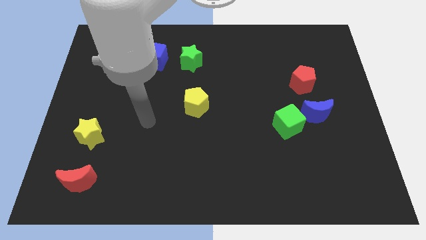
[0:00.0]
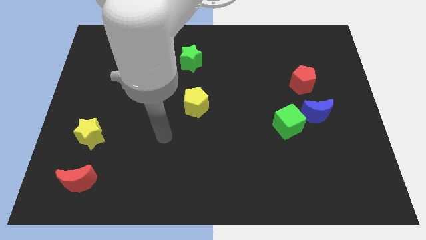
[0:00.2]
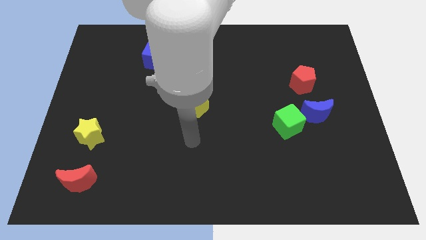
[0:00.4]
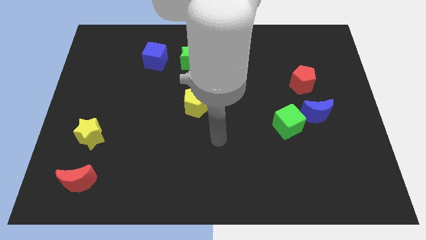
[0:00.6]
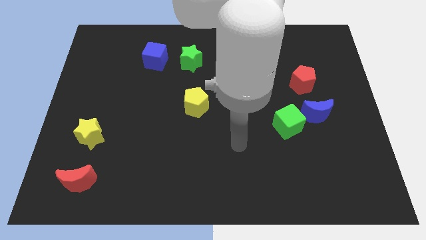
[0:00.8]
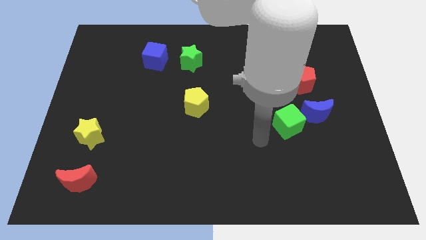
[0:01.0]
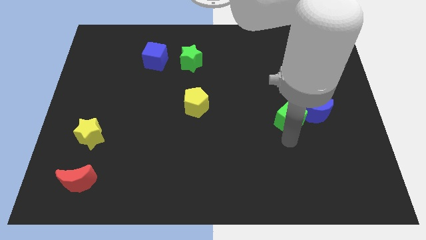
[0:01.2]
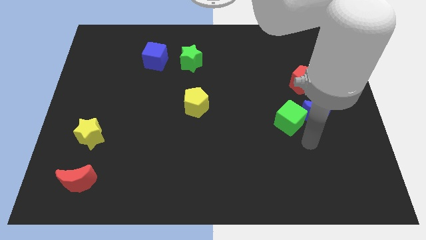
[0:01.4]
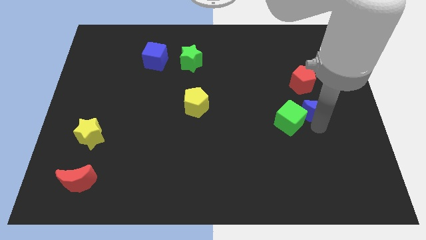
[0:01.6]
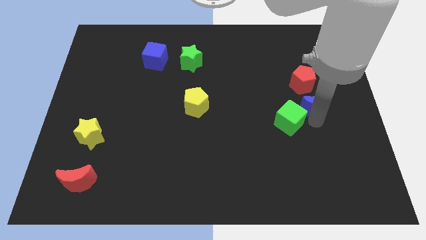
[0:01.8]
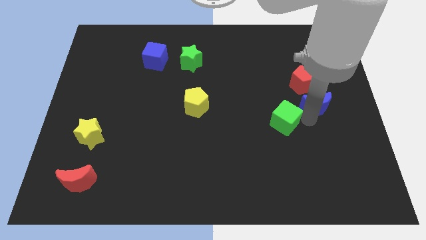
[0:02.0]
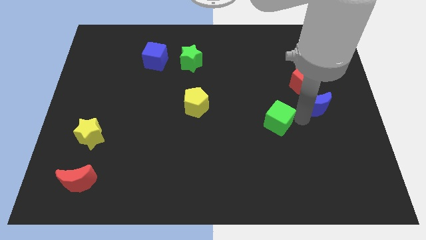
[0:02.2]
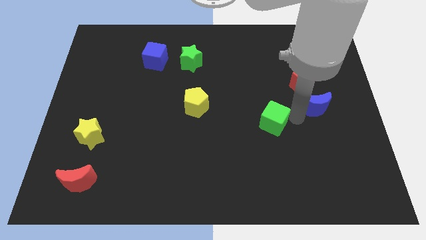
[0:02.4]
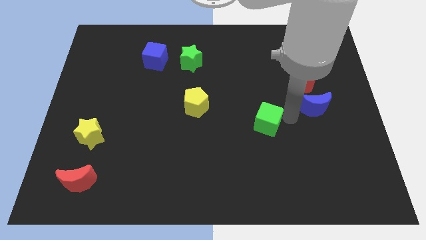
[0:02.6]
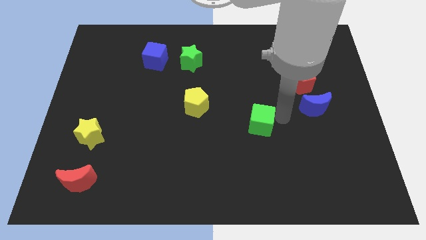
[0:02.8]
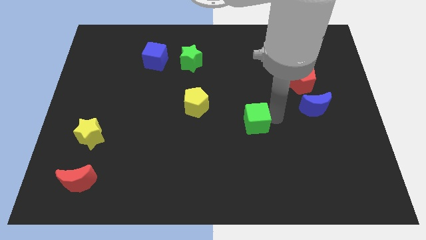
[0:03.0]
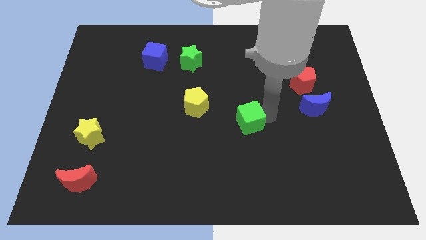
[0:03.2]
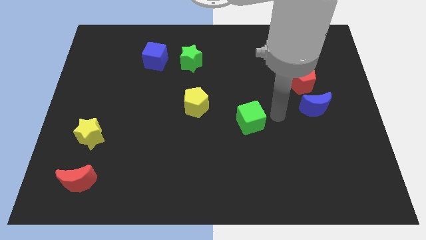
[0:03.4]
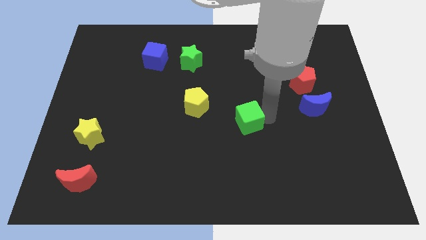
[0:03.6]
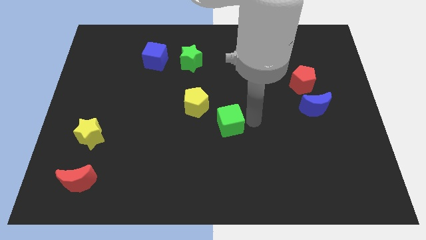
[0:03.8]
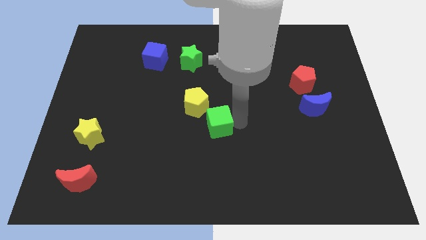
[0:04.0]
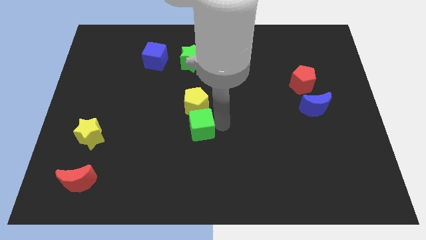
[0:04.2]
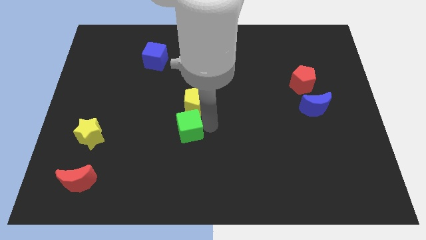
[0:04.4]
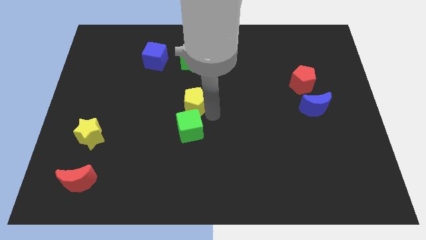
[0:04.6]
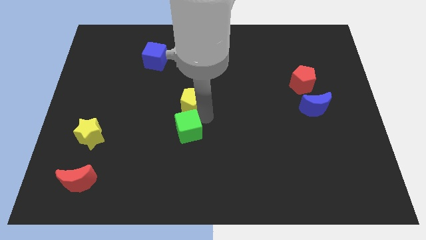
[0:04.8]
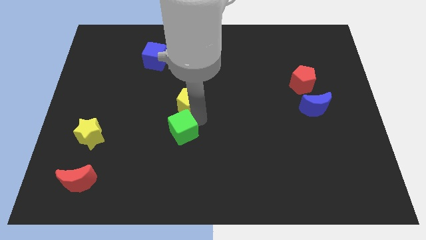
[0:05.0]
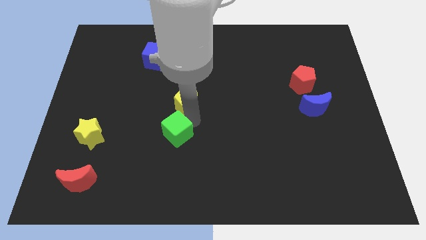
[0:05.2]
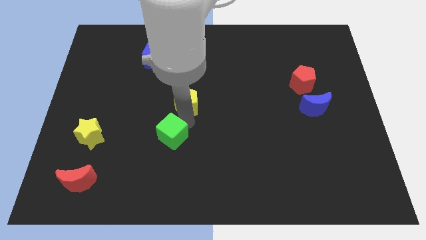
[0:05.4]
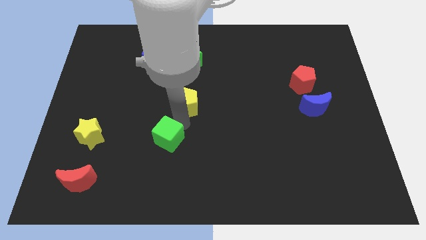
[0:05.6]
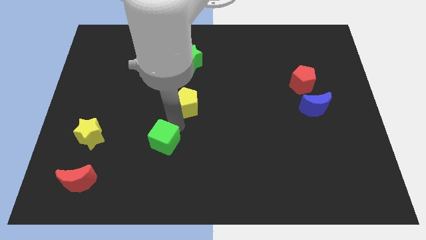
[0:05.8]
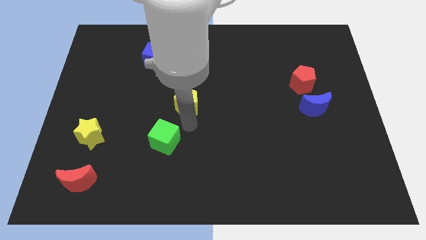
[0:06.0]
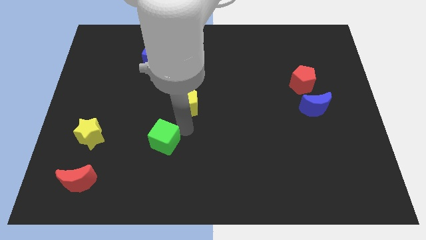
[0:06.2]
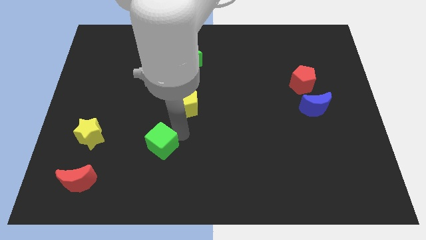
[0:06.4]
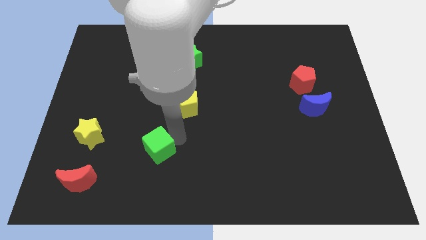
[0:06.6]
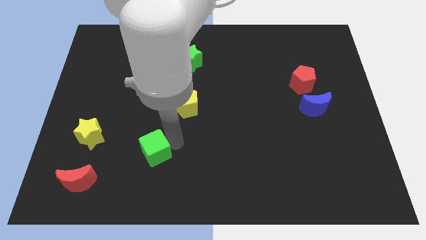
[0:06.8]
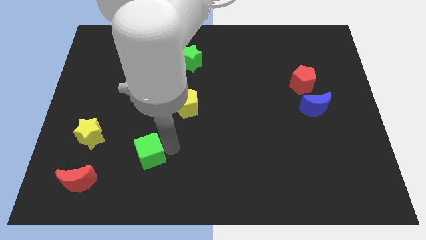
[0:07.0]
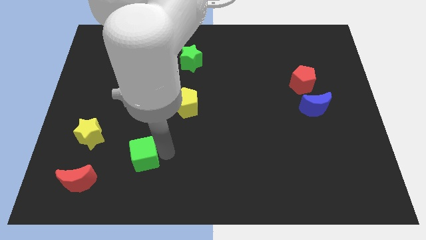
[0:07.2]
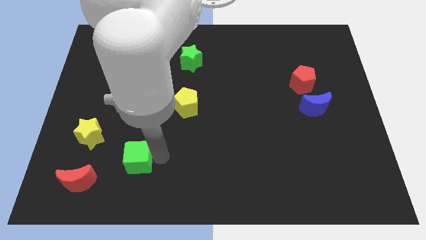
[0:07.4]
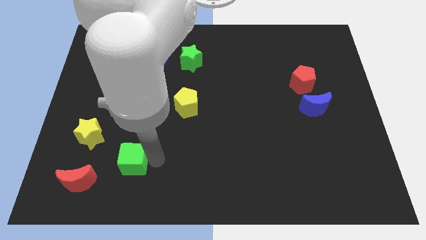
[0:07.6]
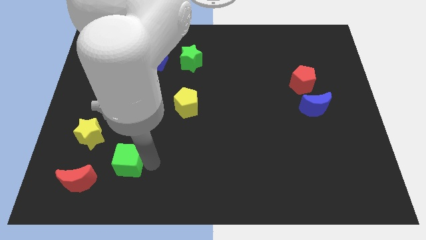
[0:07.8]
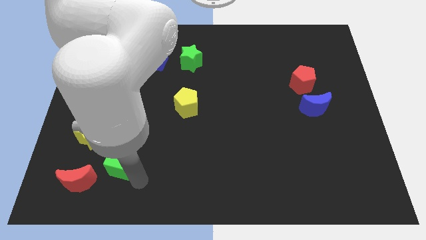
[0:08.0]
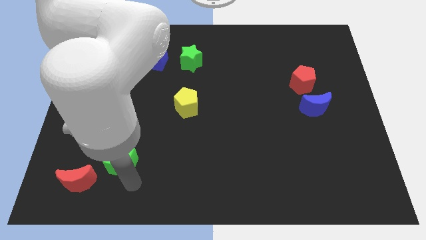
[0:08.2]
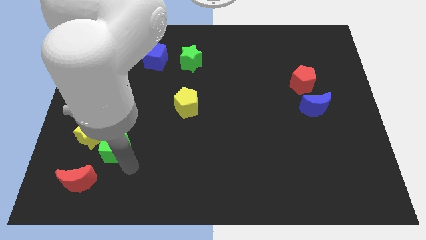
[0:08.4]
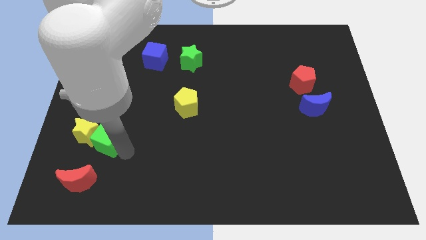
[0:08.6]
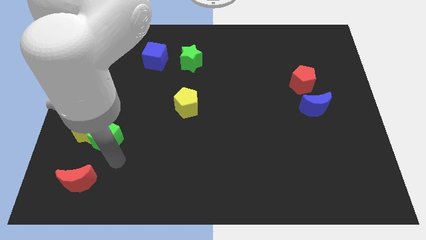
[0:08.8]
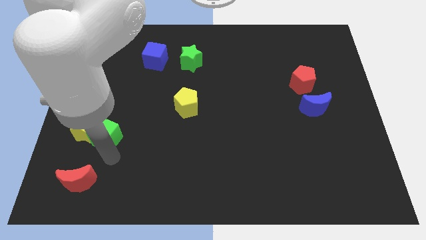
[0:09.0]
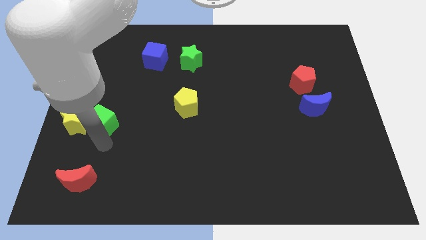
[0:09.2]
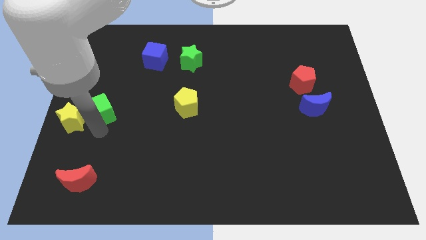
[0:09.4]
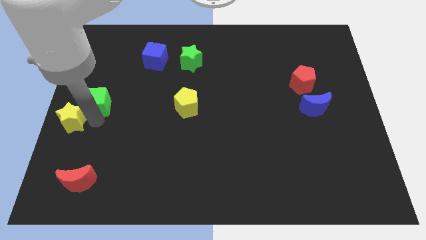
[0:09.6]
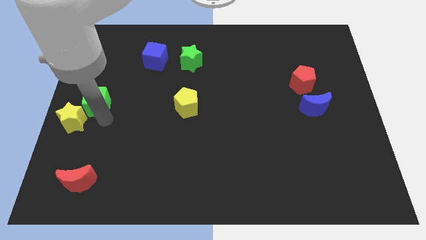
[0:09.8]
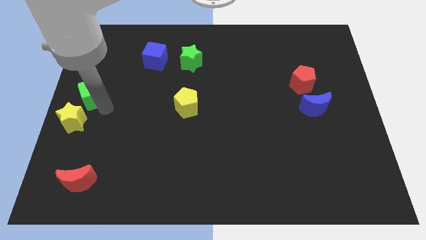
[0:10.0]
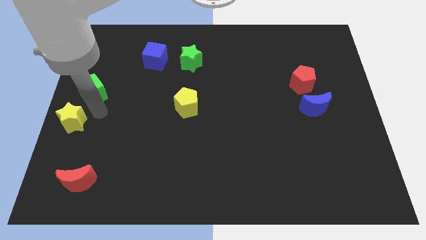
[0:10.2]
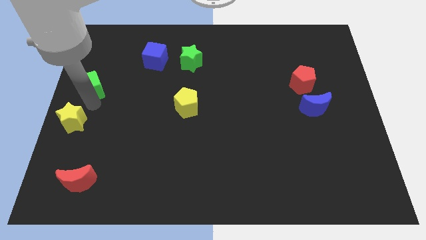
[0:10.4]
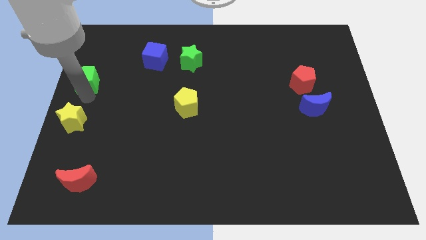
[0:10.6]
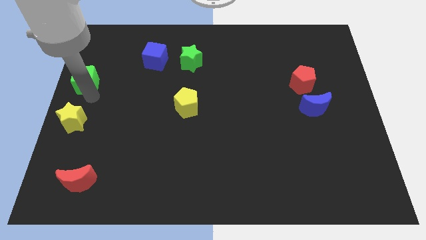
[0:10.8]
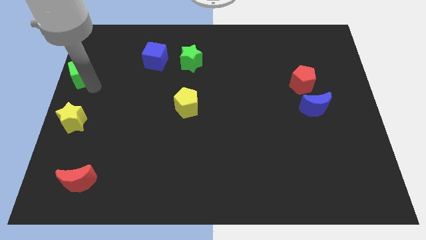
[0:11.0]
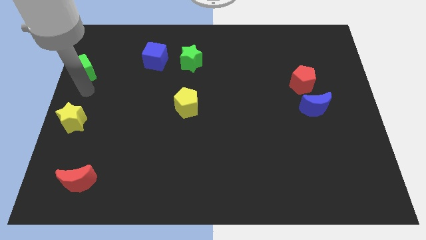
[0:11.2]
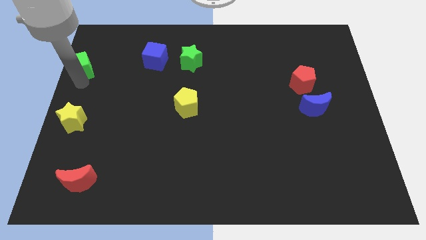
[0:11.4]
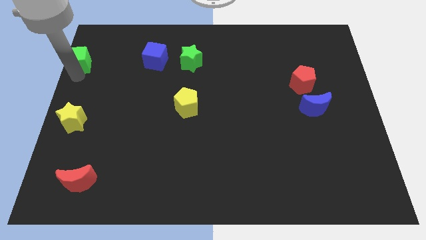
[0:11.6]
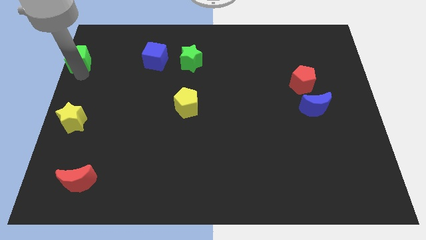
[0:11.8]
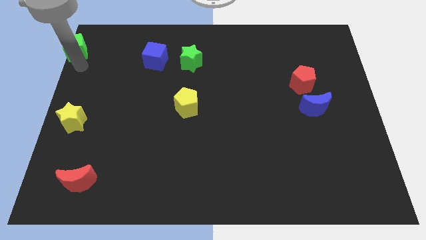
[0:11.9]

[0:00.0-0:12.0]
slide the green cube to the upper left corner
